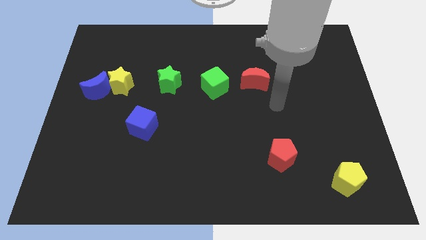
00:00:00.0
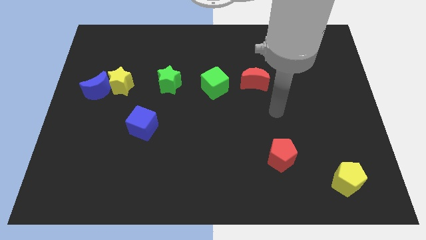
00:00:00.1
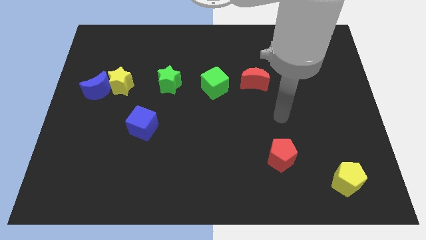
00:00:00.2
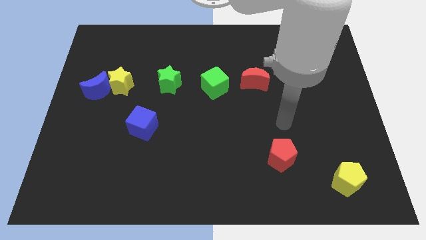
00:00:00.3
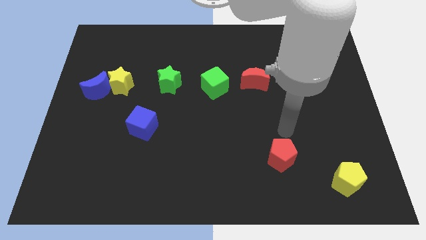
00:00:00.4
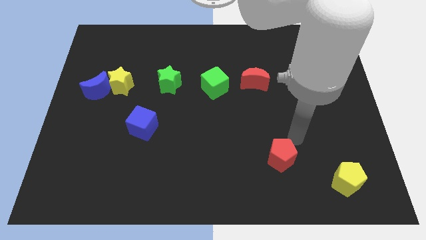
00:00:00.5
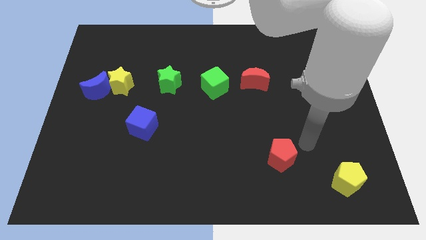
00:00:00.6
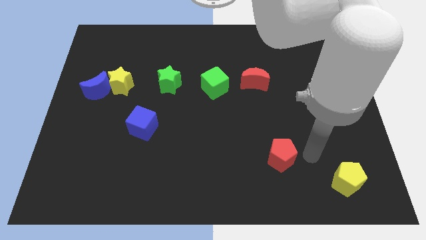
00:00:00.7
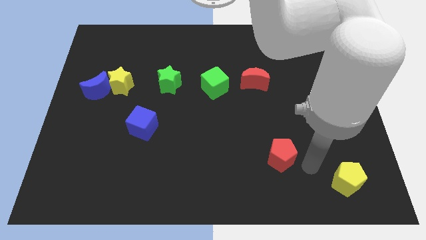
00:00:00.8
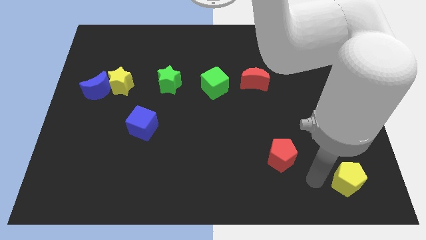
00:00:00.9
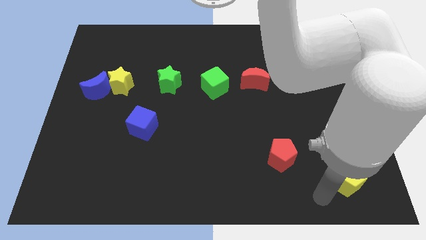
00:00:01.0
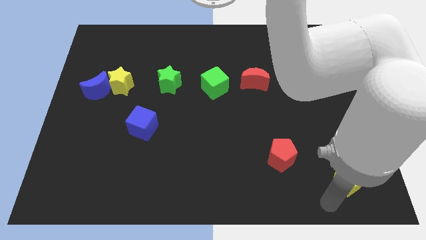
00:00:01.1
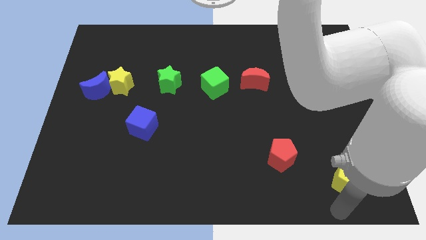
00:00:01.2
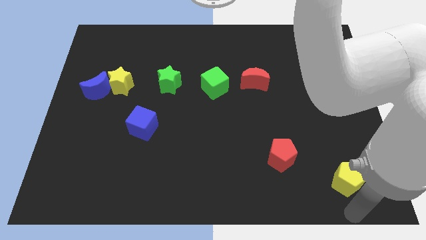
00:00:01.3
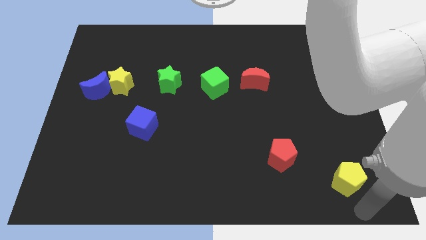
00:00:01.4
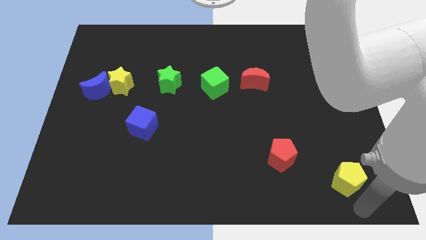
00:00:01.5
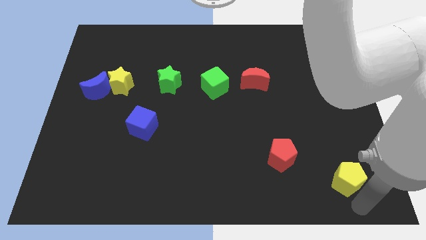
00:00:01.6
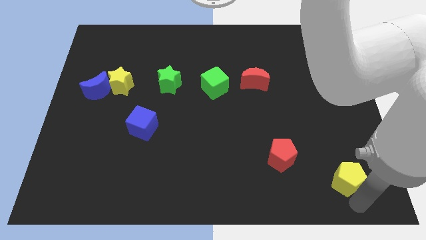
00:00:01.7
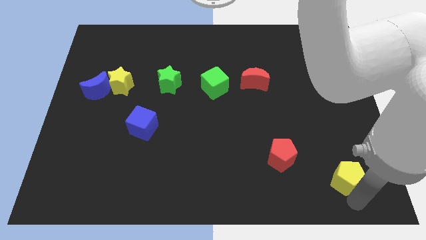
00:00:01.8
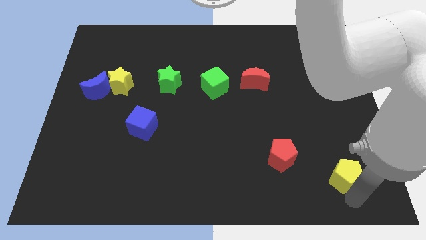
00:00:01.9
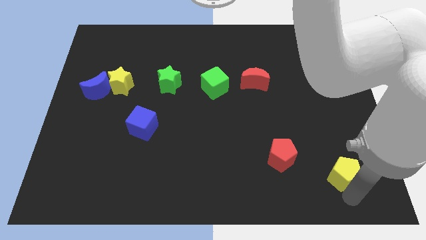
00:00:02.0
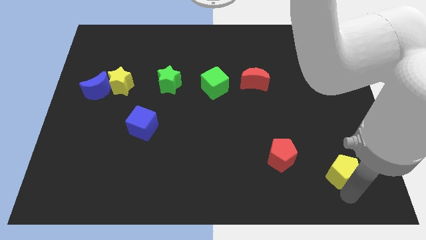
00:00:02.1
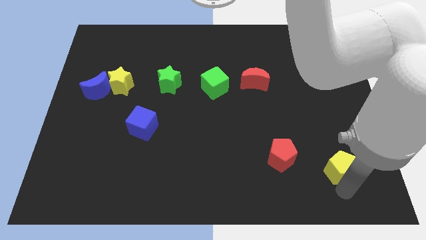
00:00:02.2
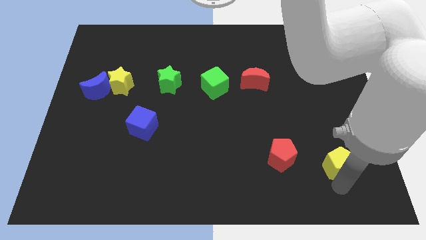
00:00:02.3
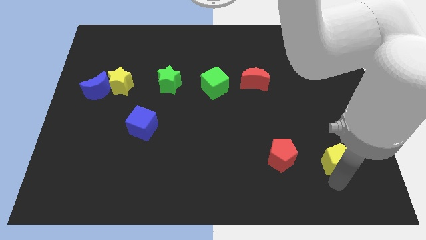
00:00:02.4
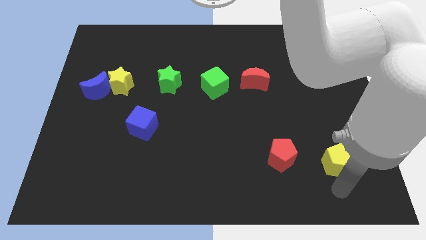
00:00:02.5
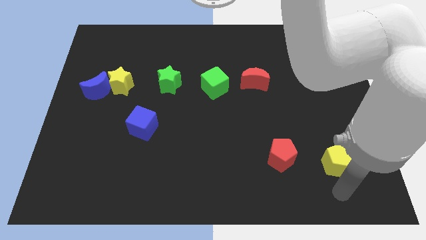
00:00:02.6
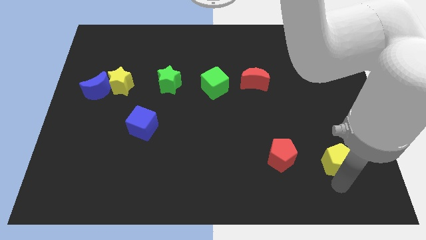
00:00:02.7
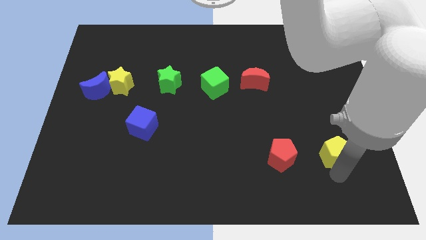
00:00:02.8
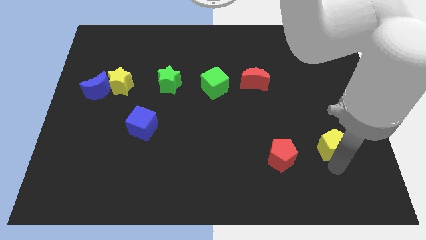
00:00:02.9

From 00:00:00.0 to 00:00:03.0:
slightly slide the yellow pentagon up

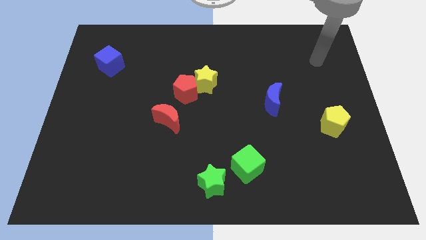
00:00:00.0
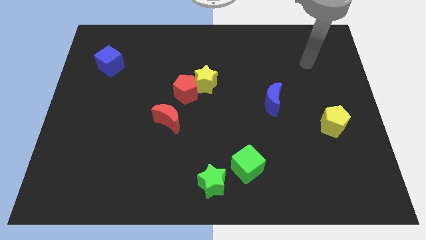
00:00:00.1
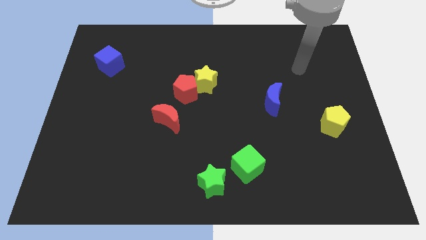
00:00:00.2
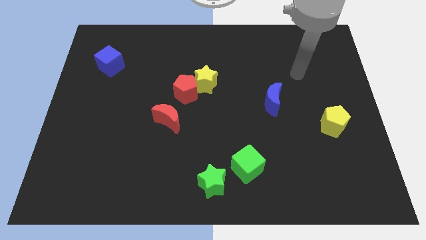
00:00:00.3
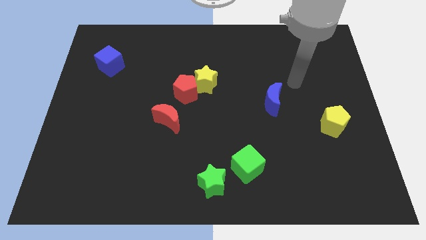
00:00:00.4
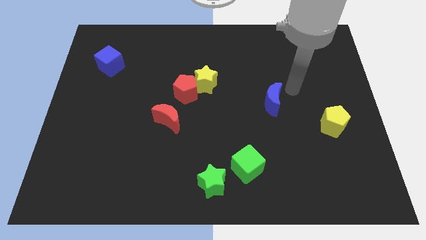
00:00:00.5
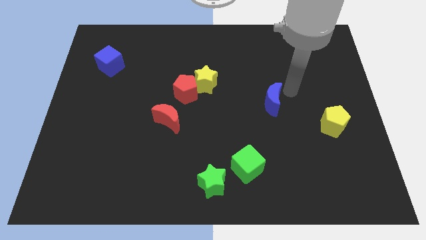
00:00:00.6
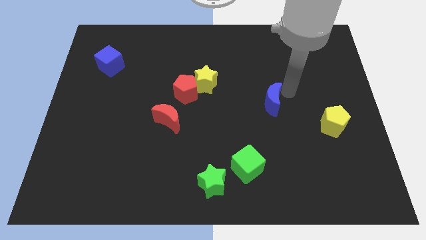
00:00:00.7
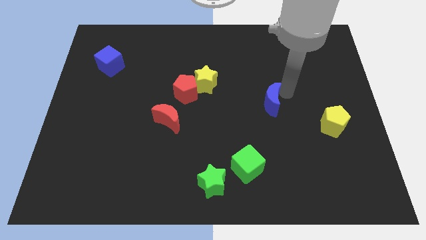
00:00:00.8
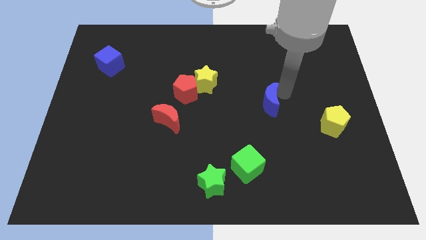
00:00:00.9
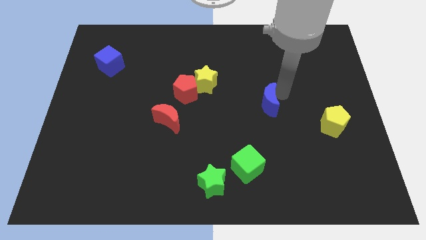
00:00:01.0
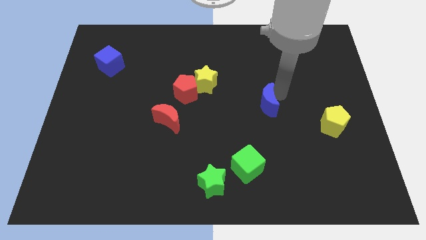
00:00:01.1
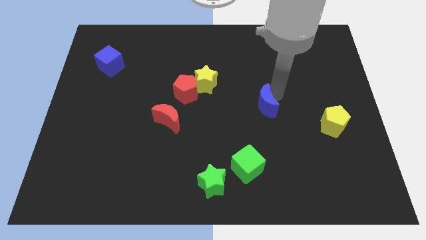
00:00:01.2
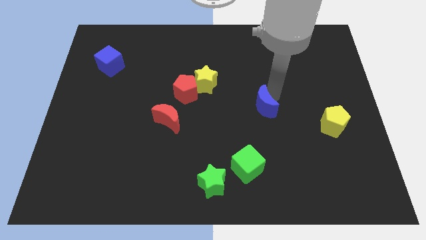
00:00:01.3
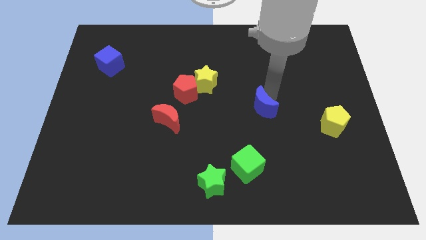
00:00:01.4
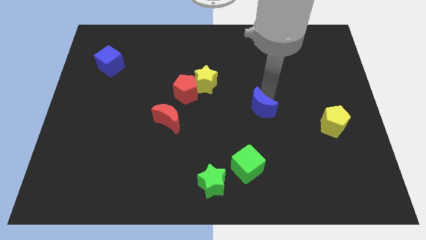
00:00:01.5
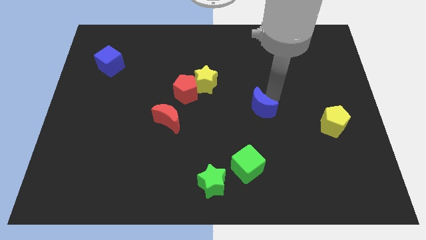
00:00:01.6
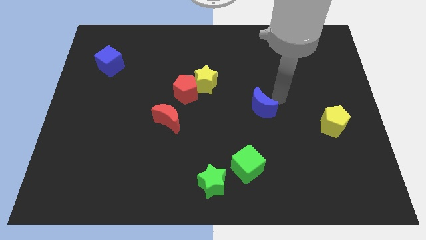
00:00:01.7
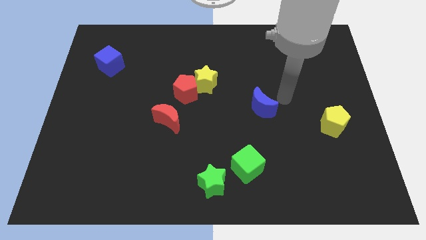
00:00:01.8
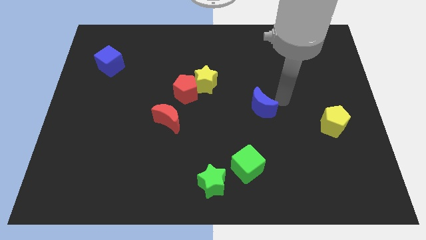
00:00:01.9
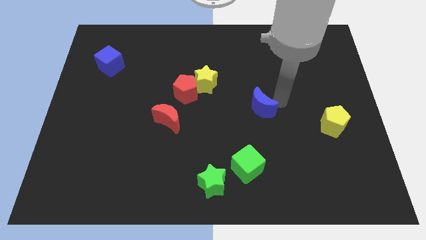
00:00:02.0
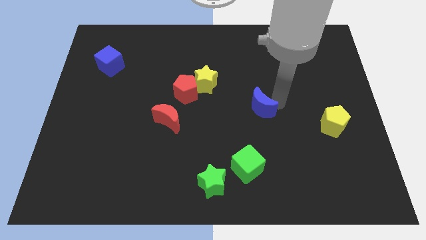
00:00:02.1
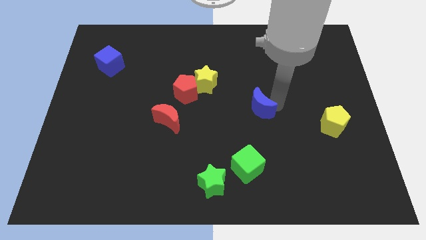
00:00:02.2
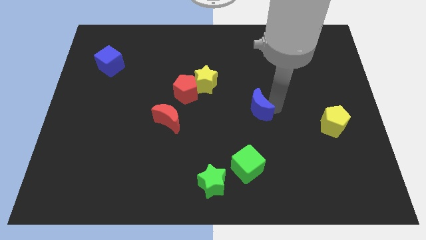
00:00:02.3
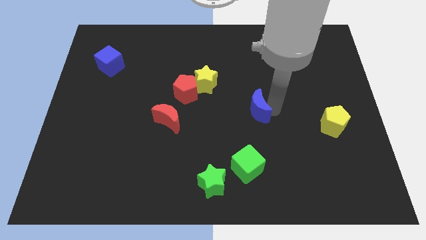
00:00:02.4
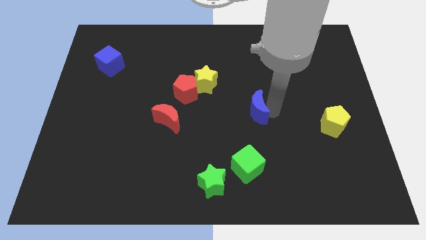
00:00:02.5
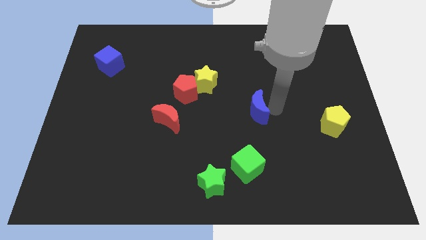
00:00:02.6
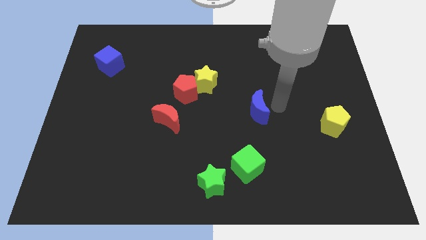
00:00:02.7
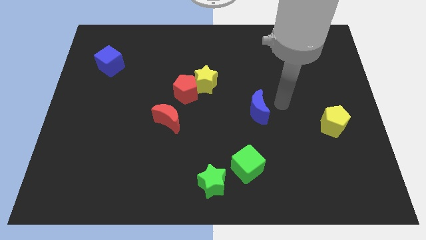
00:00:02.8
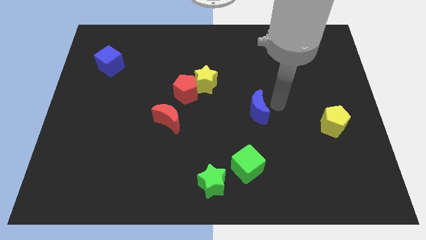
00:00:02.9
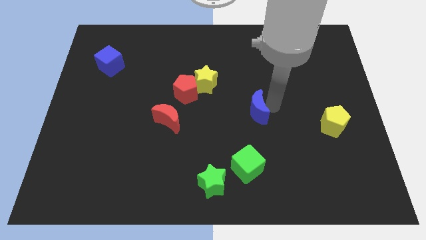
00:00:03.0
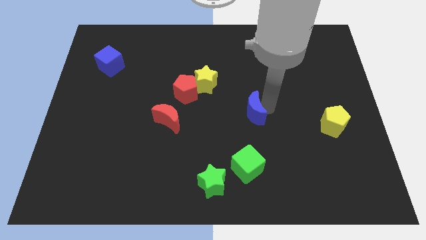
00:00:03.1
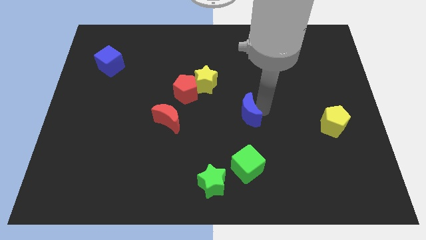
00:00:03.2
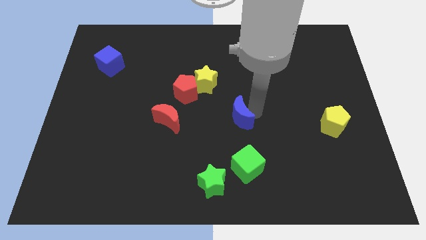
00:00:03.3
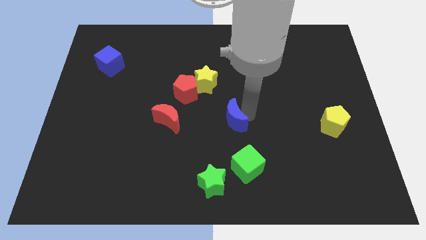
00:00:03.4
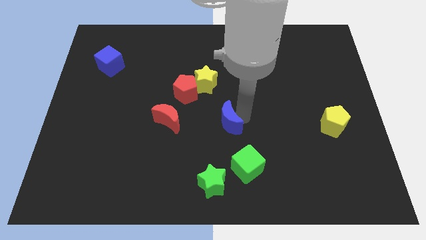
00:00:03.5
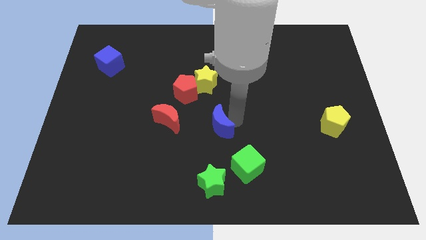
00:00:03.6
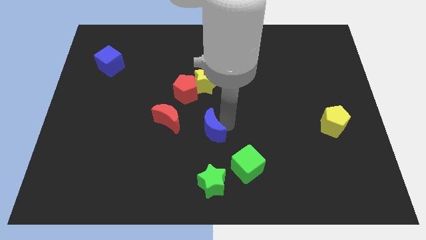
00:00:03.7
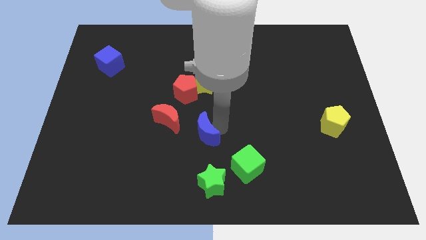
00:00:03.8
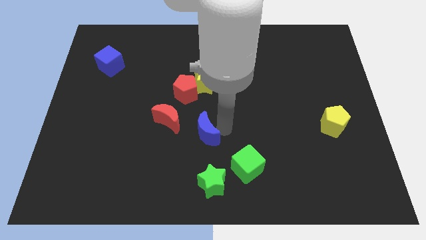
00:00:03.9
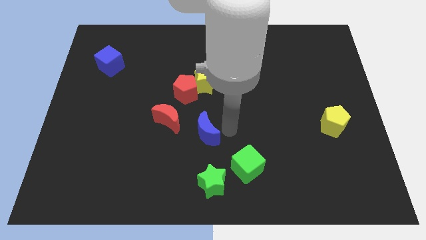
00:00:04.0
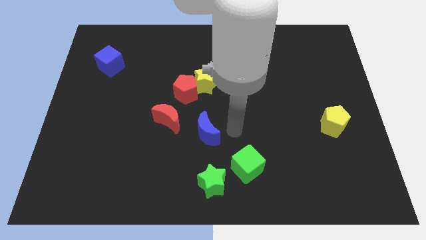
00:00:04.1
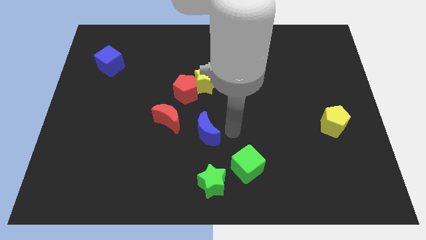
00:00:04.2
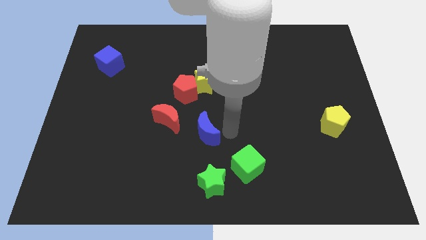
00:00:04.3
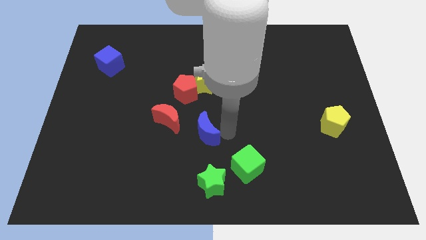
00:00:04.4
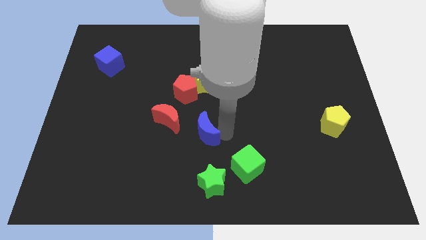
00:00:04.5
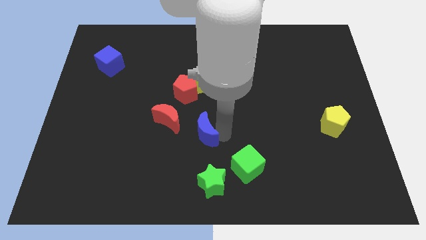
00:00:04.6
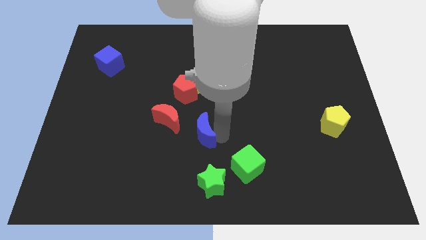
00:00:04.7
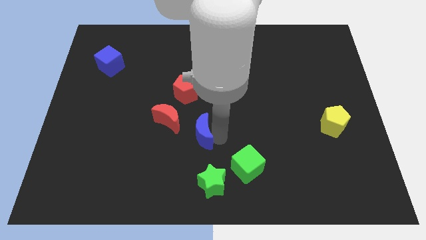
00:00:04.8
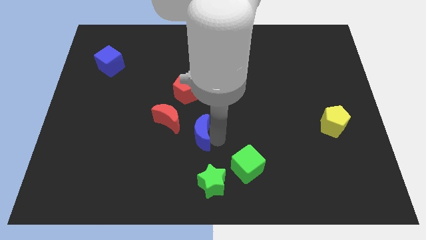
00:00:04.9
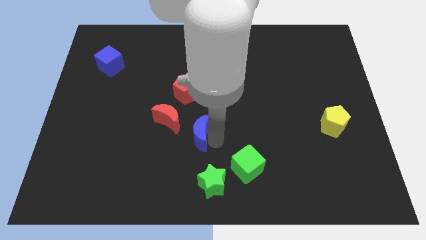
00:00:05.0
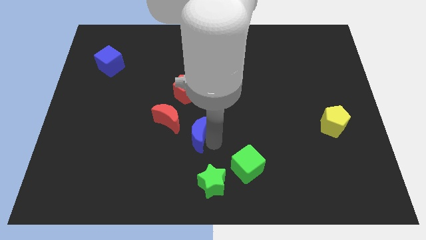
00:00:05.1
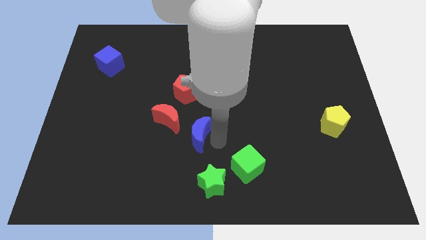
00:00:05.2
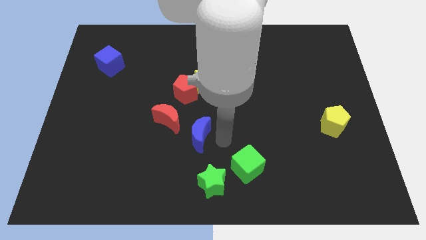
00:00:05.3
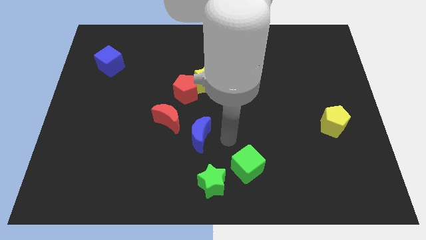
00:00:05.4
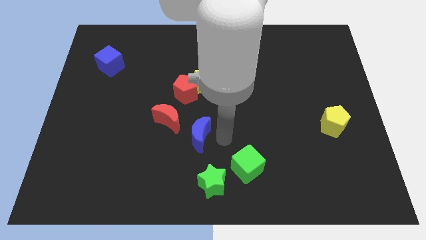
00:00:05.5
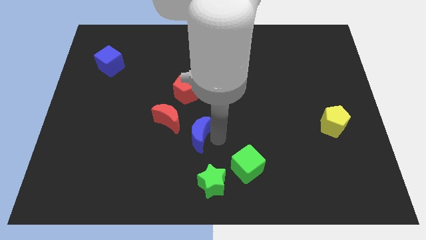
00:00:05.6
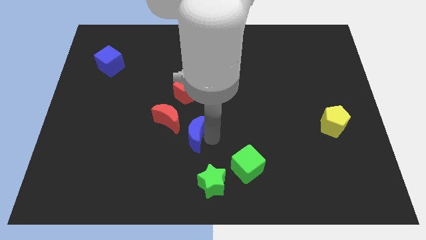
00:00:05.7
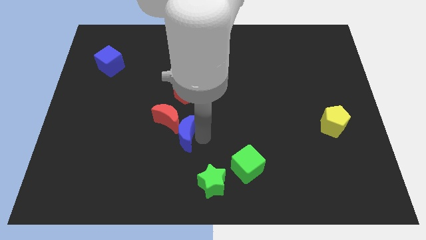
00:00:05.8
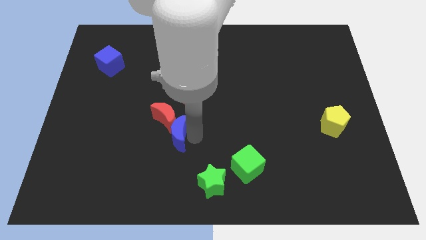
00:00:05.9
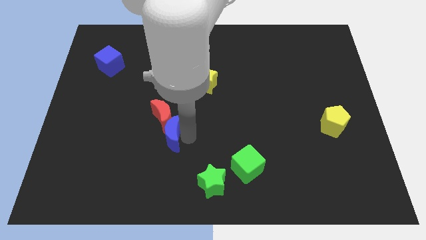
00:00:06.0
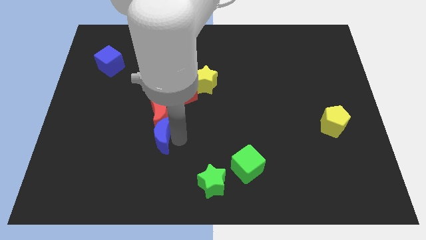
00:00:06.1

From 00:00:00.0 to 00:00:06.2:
push the blue moon to the left
